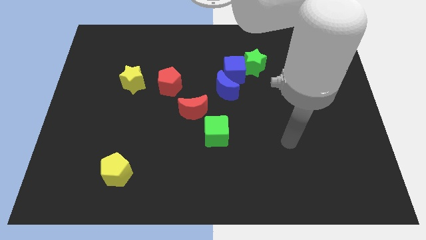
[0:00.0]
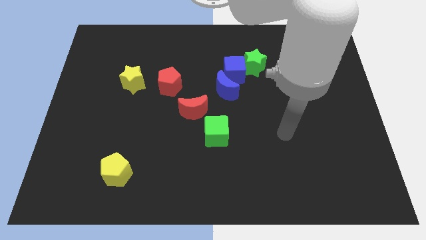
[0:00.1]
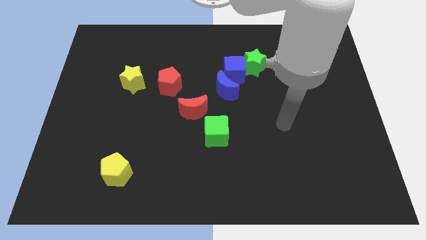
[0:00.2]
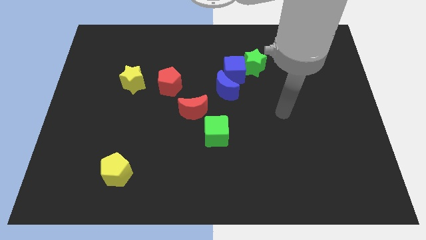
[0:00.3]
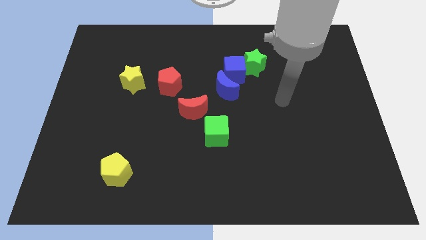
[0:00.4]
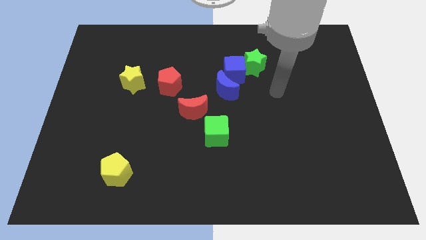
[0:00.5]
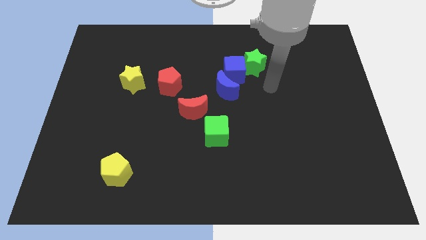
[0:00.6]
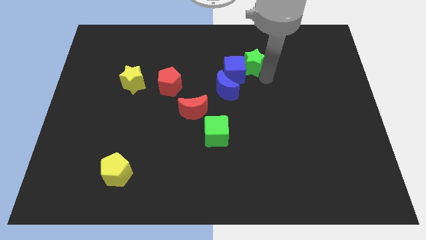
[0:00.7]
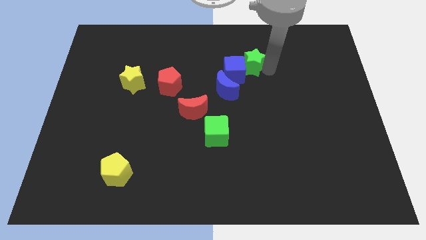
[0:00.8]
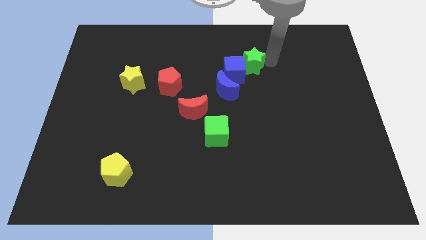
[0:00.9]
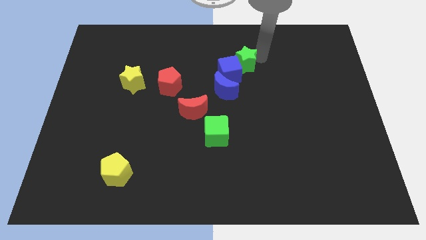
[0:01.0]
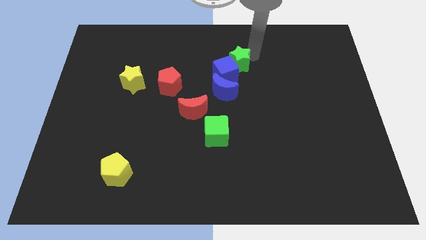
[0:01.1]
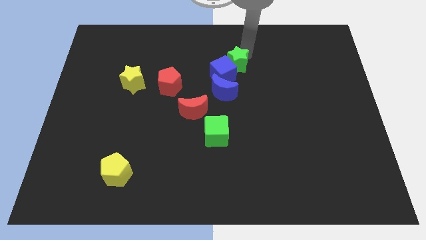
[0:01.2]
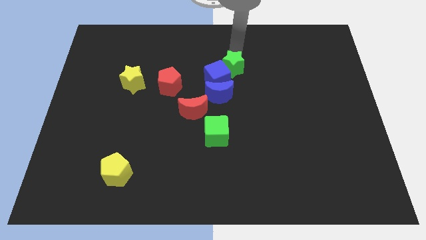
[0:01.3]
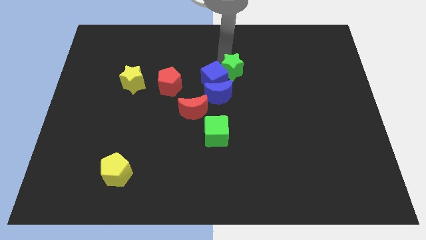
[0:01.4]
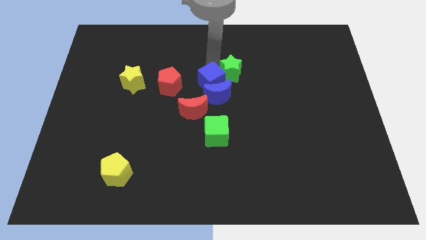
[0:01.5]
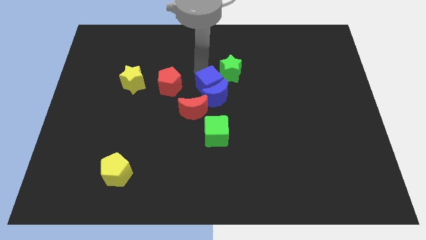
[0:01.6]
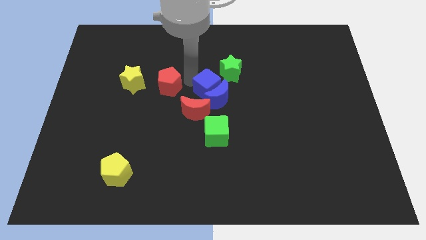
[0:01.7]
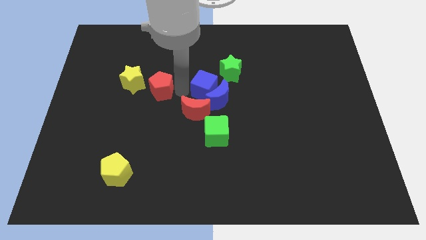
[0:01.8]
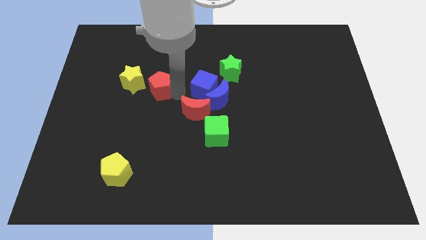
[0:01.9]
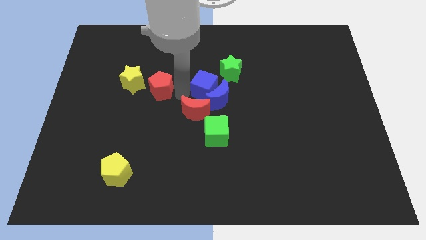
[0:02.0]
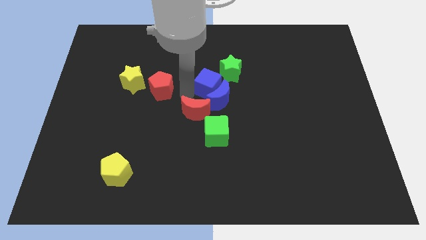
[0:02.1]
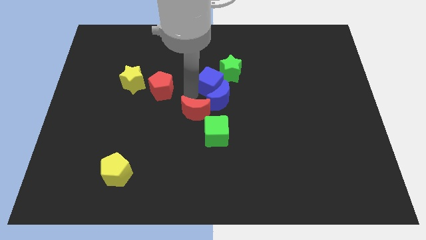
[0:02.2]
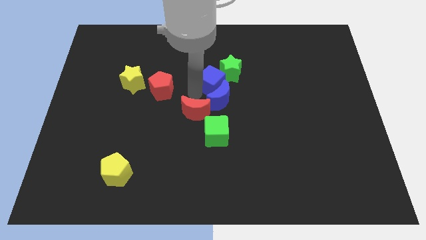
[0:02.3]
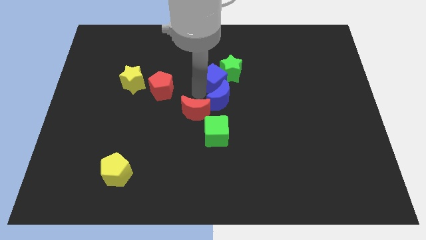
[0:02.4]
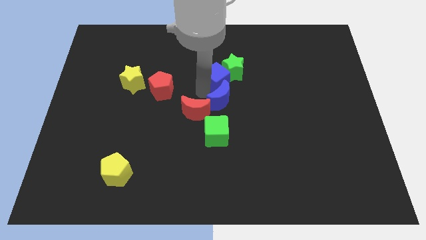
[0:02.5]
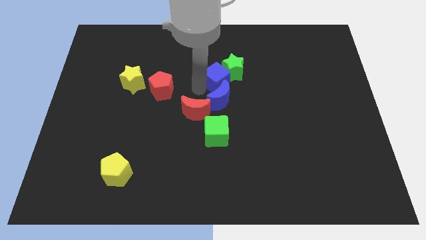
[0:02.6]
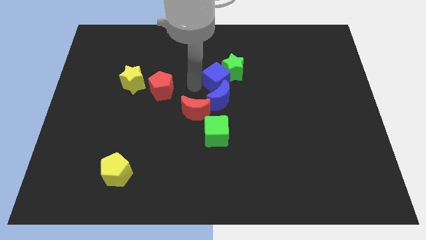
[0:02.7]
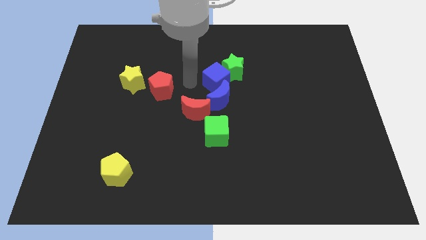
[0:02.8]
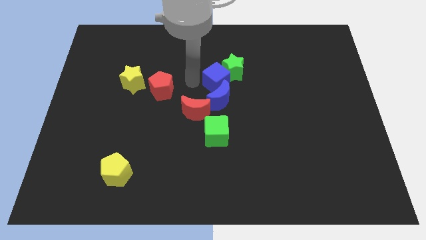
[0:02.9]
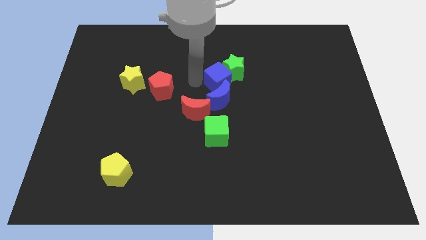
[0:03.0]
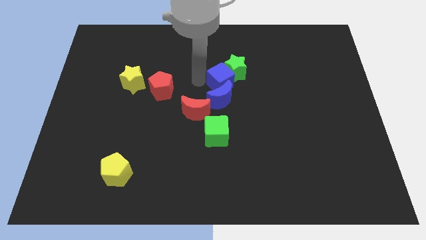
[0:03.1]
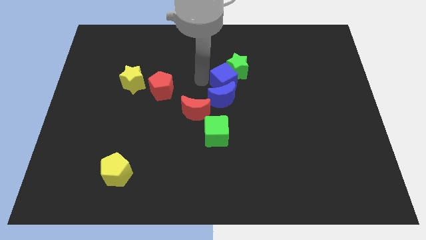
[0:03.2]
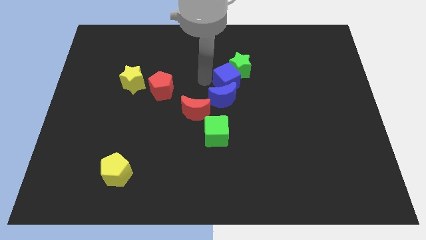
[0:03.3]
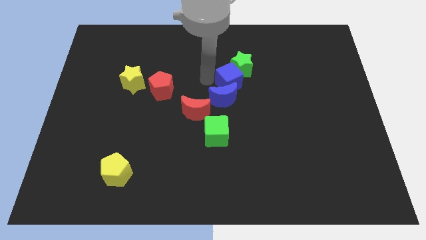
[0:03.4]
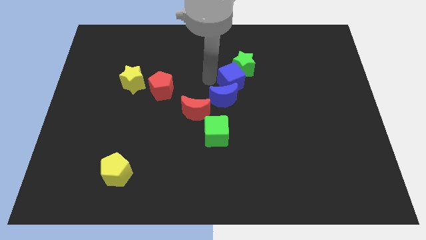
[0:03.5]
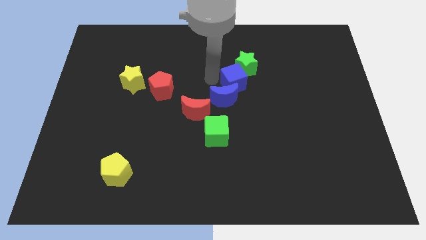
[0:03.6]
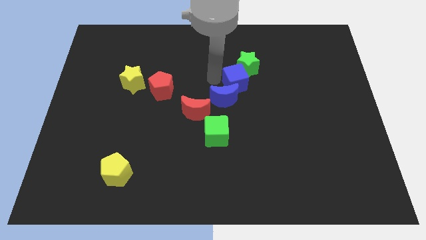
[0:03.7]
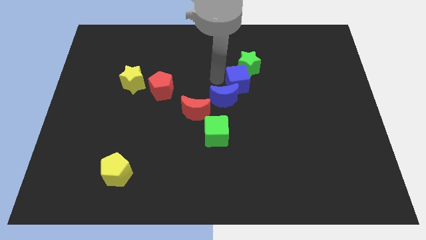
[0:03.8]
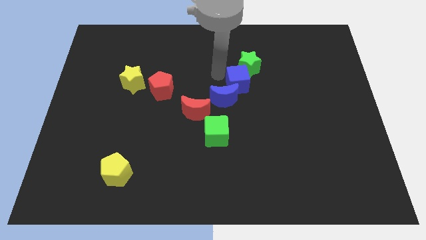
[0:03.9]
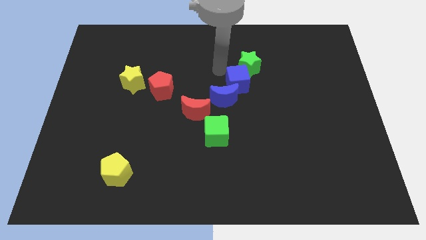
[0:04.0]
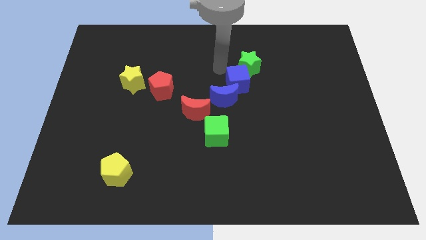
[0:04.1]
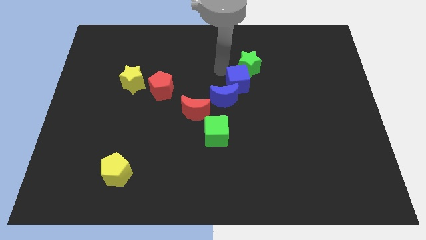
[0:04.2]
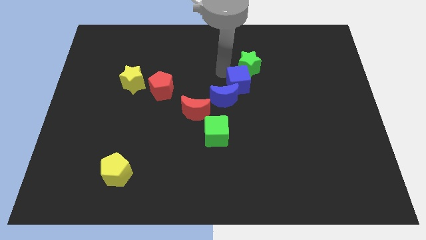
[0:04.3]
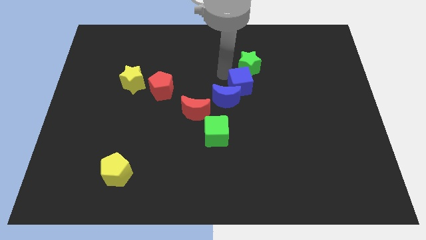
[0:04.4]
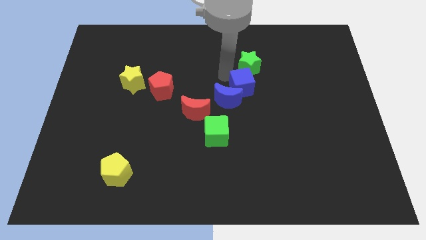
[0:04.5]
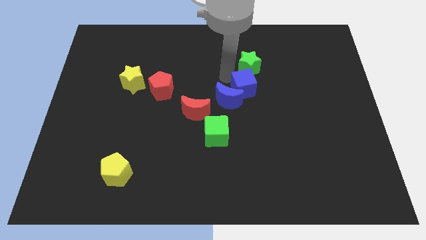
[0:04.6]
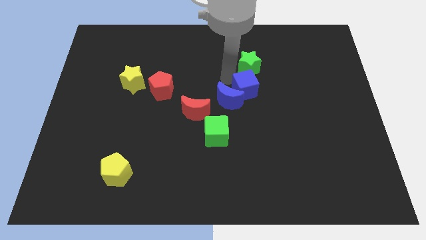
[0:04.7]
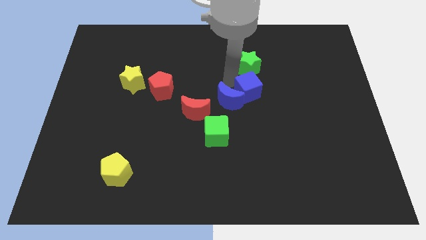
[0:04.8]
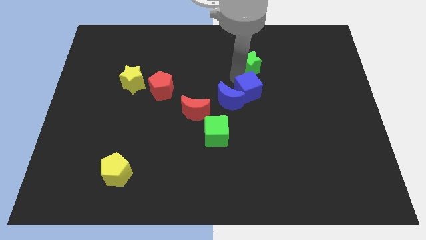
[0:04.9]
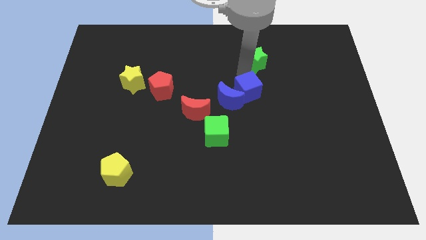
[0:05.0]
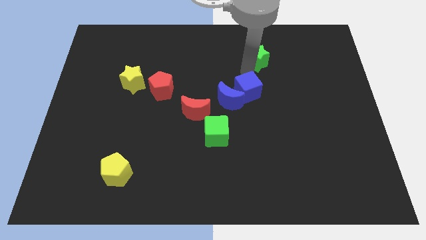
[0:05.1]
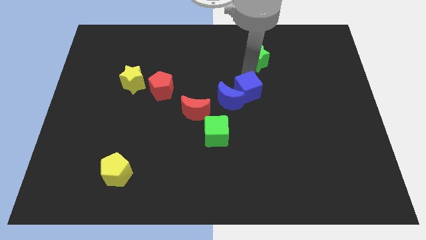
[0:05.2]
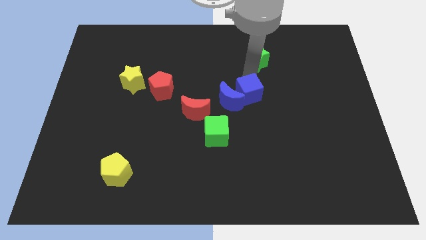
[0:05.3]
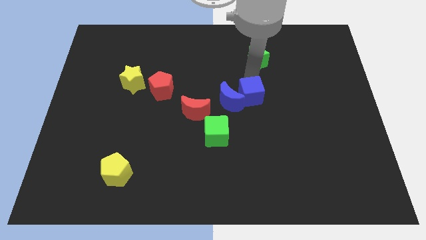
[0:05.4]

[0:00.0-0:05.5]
move the blue cube slightly downwards

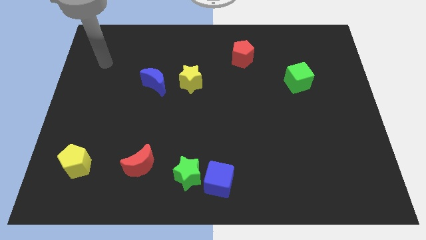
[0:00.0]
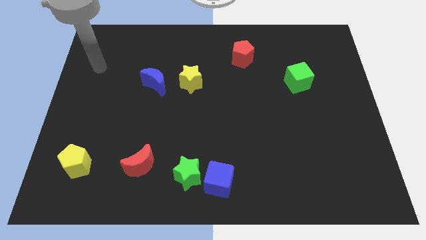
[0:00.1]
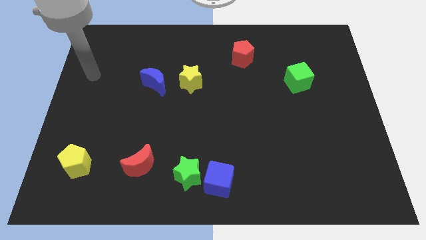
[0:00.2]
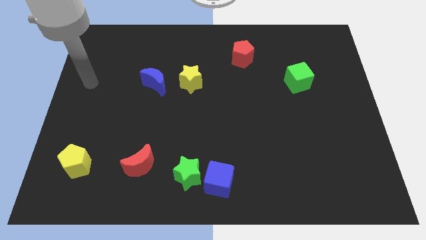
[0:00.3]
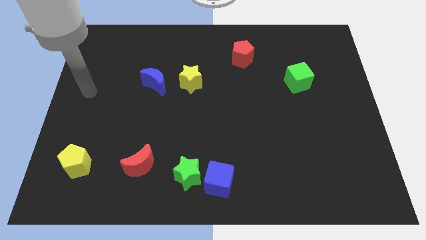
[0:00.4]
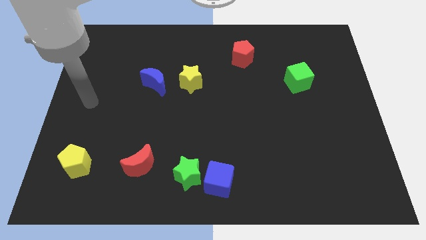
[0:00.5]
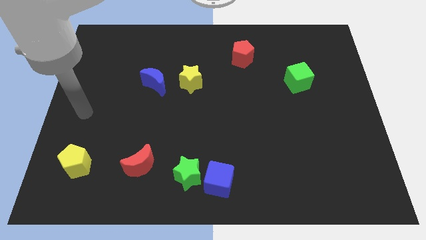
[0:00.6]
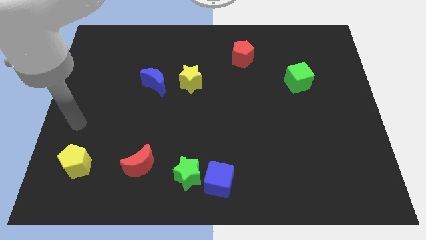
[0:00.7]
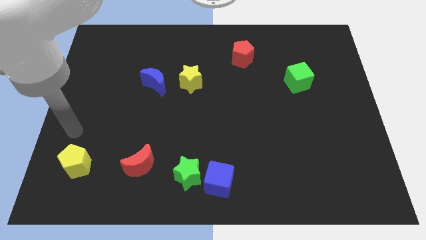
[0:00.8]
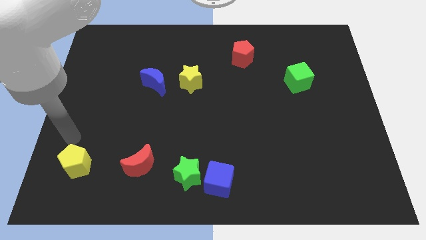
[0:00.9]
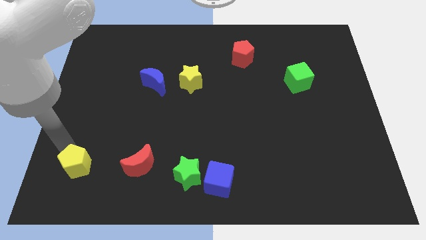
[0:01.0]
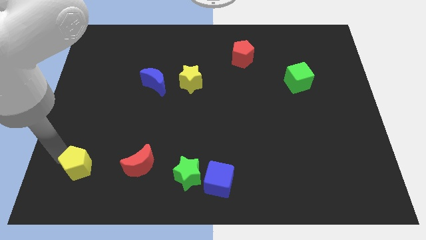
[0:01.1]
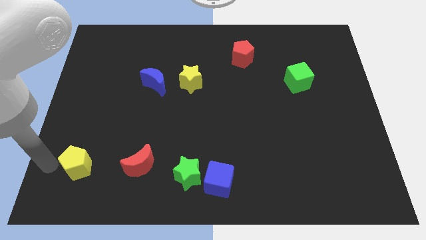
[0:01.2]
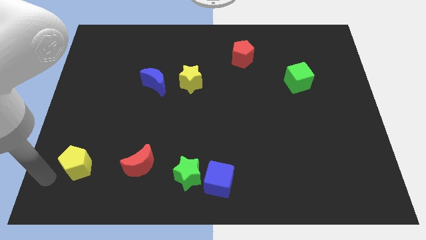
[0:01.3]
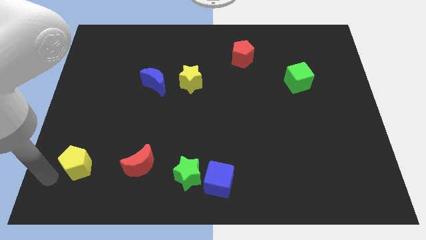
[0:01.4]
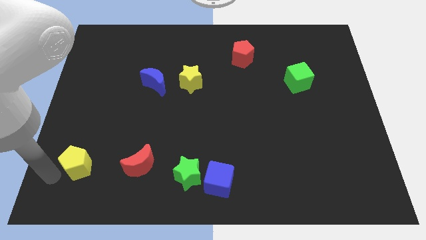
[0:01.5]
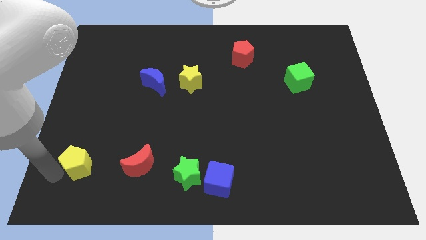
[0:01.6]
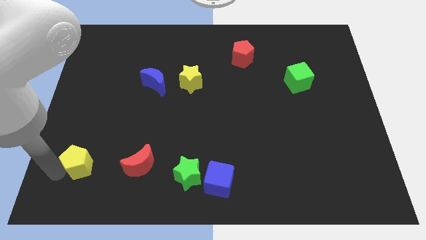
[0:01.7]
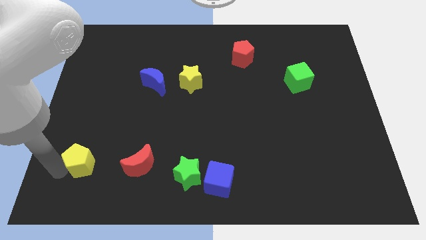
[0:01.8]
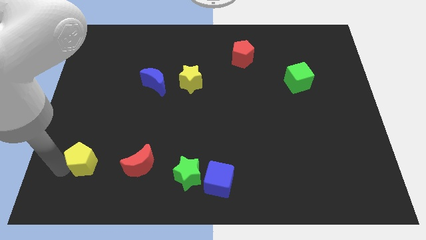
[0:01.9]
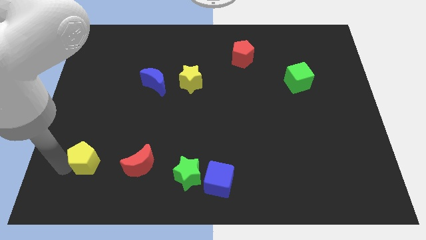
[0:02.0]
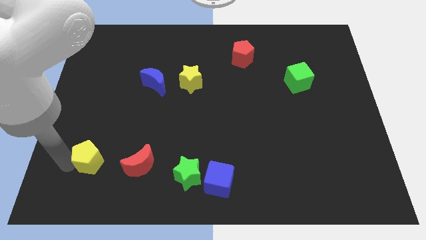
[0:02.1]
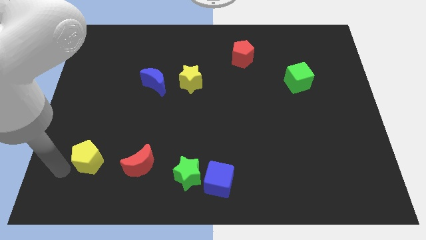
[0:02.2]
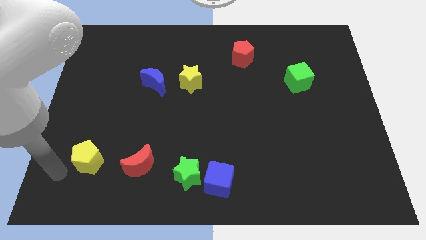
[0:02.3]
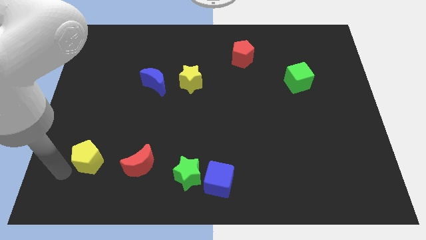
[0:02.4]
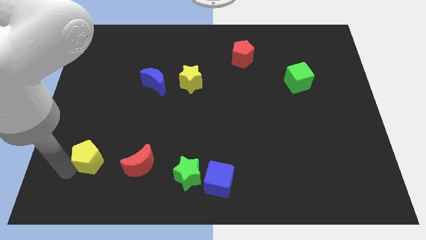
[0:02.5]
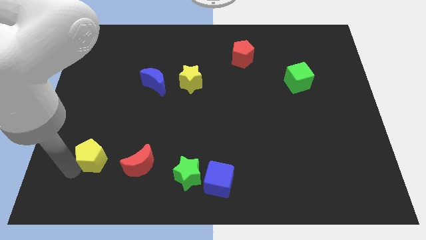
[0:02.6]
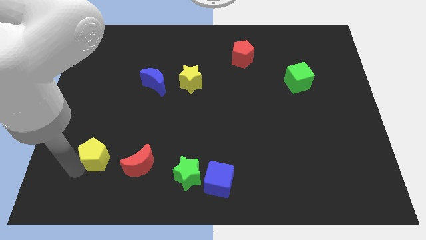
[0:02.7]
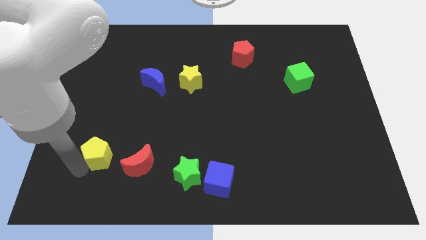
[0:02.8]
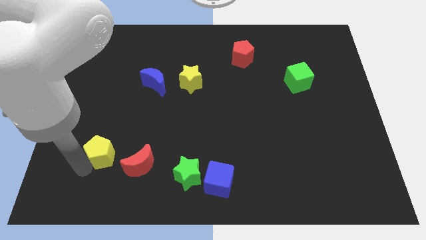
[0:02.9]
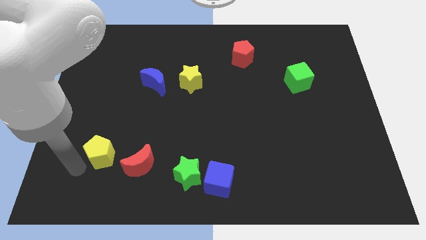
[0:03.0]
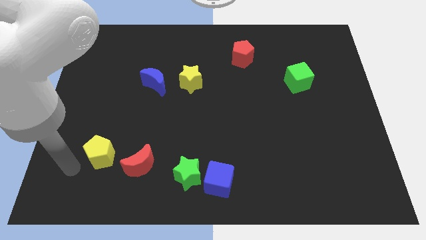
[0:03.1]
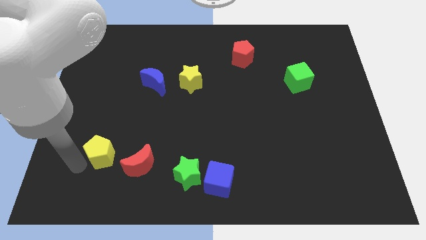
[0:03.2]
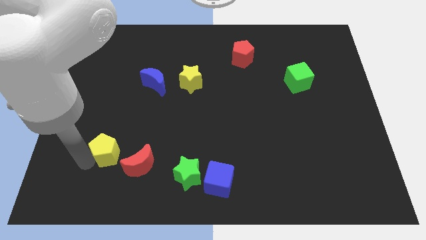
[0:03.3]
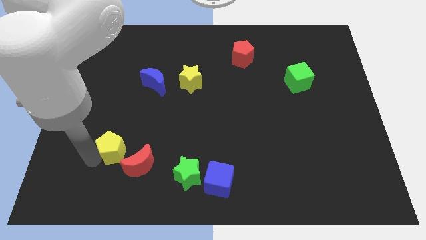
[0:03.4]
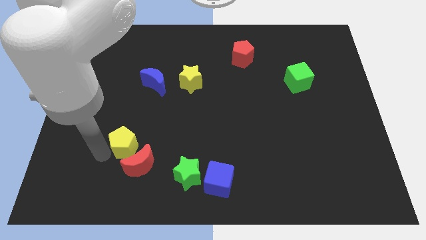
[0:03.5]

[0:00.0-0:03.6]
slightly move the yellow pentagon to the right
